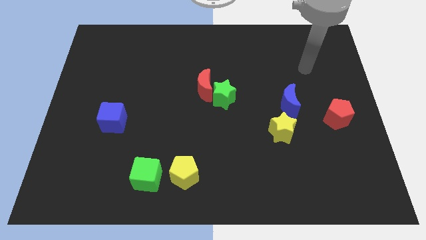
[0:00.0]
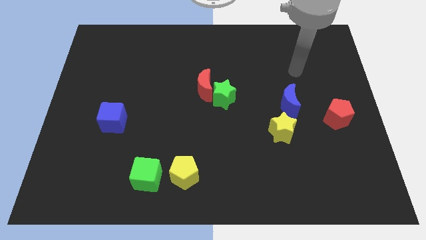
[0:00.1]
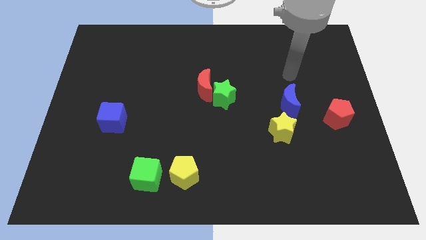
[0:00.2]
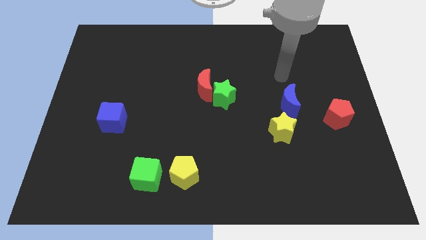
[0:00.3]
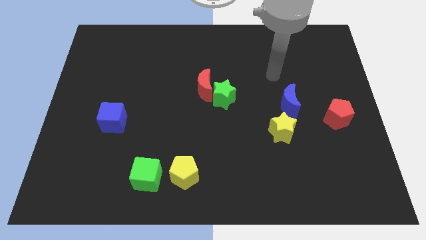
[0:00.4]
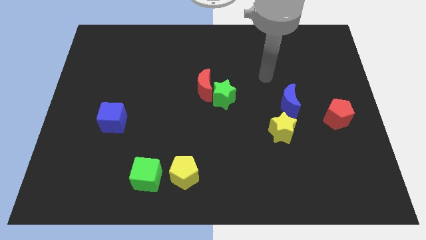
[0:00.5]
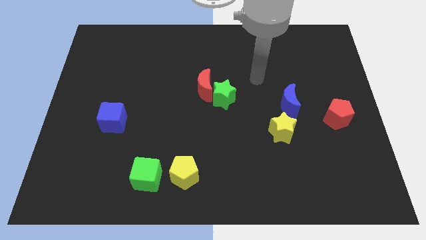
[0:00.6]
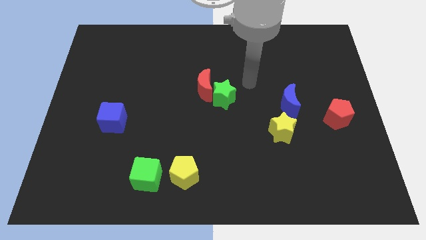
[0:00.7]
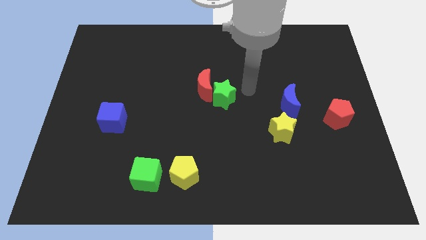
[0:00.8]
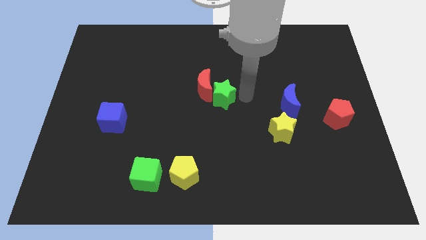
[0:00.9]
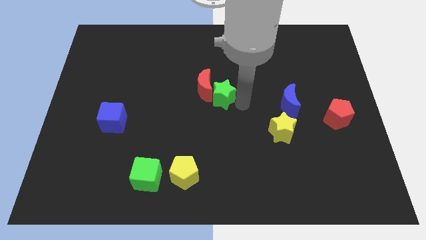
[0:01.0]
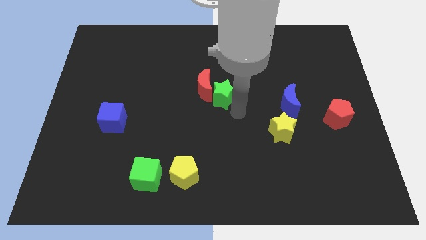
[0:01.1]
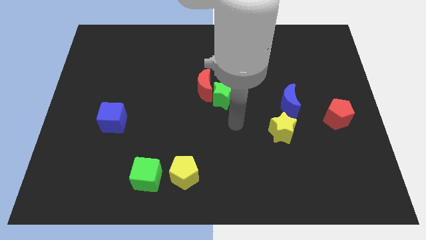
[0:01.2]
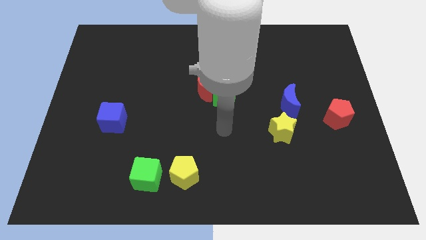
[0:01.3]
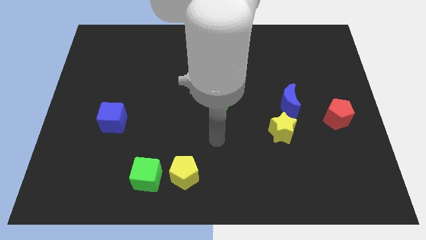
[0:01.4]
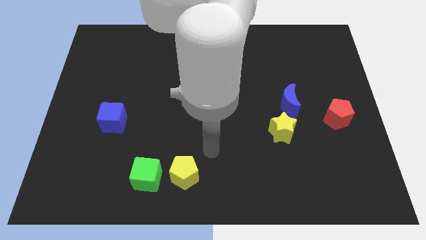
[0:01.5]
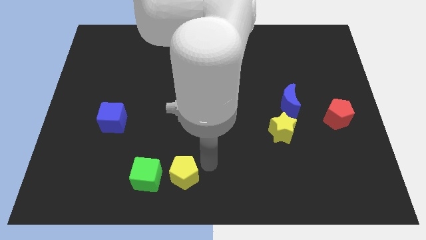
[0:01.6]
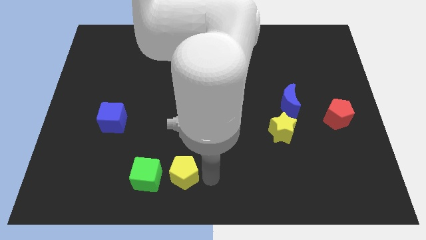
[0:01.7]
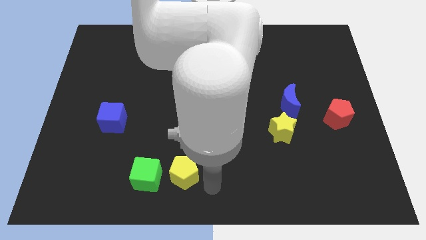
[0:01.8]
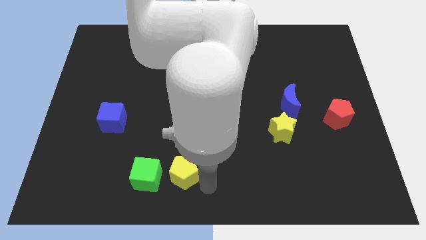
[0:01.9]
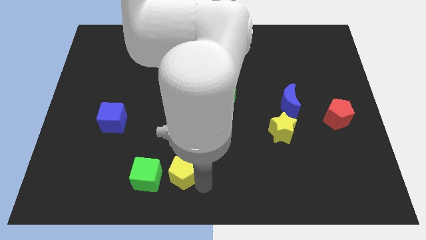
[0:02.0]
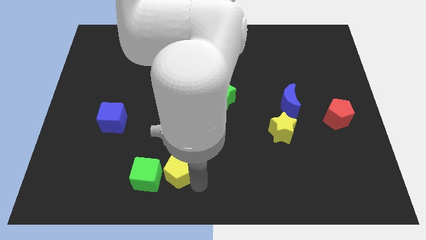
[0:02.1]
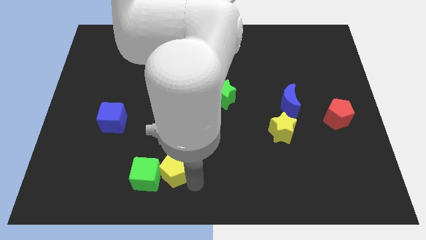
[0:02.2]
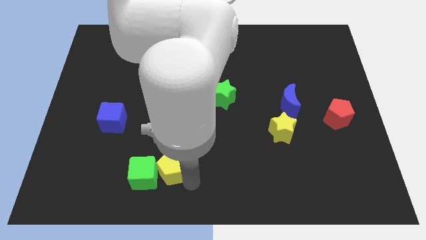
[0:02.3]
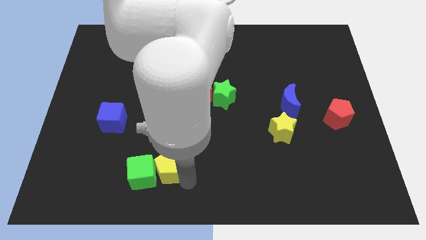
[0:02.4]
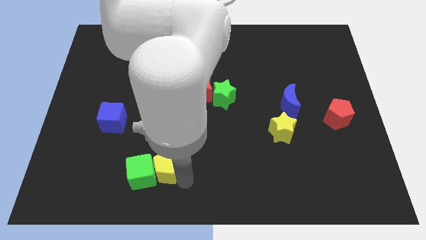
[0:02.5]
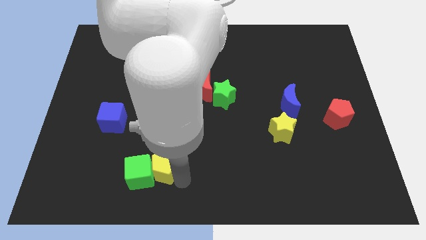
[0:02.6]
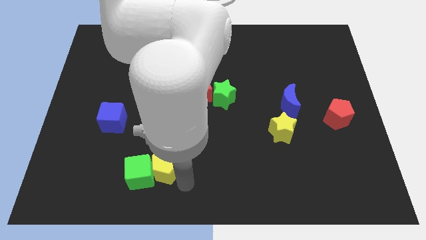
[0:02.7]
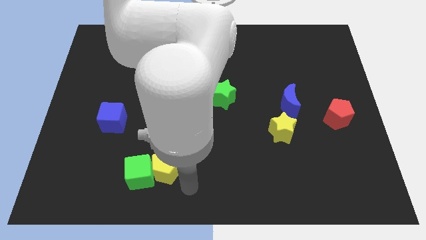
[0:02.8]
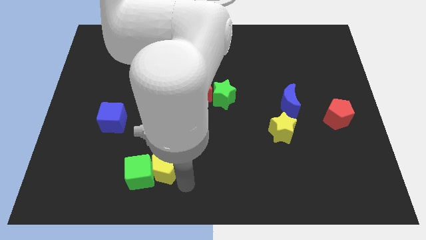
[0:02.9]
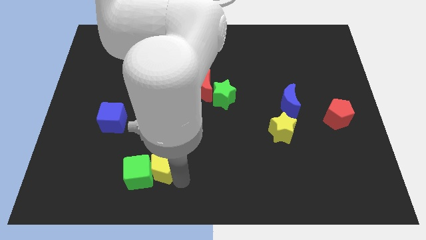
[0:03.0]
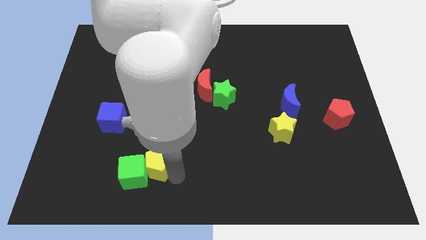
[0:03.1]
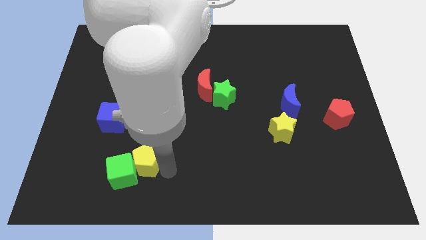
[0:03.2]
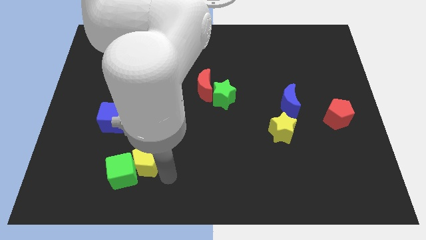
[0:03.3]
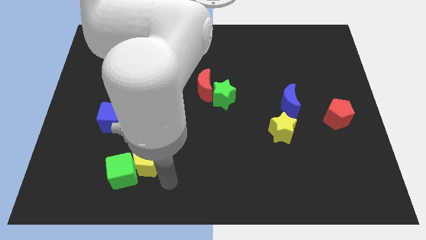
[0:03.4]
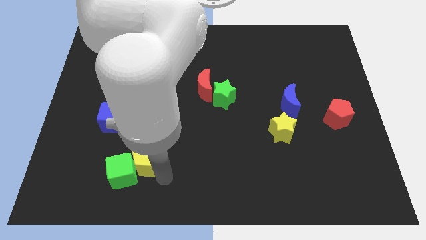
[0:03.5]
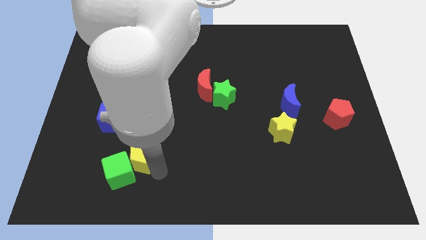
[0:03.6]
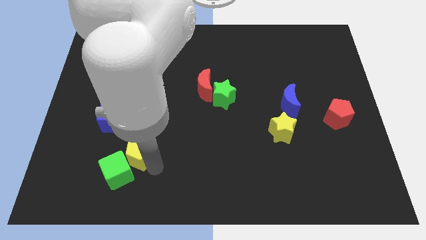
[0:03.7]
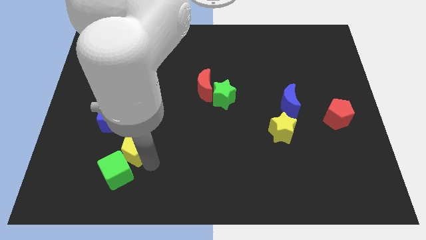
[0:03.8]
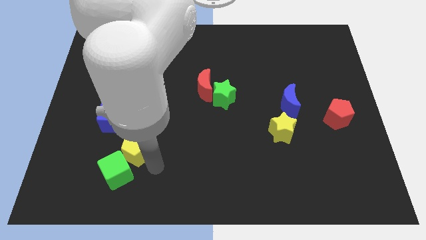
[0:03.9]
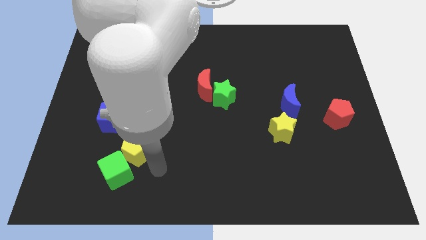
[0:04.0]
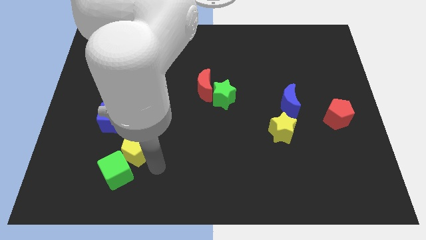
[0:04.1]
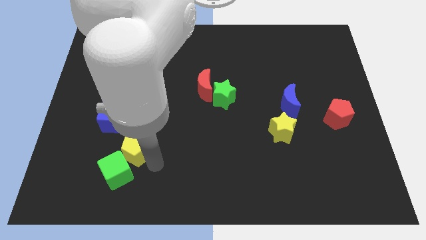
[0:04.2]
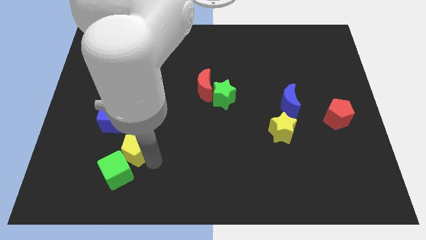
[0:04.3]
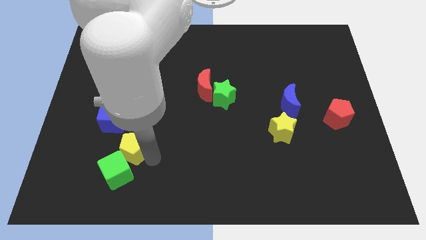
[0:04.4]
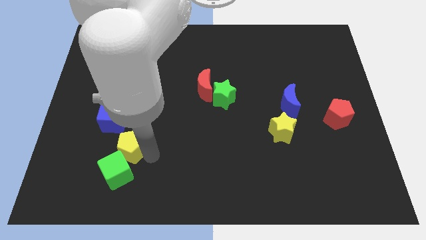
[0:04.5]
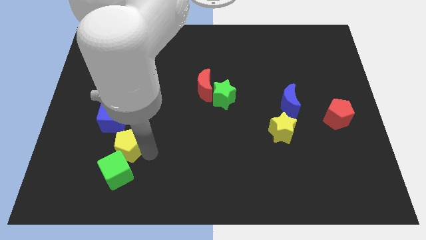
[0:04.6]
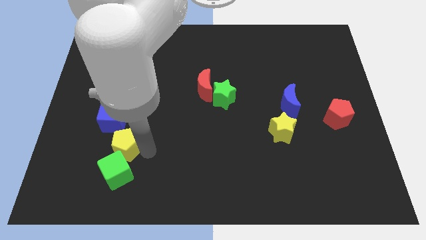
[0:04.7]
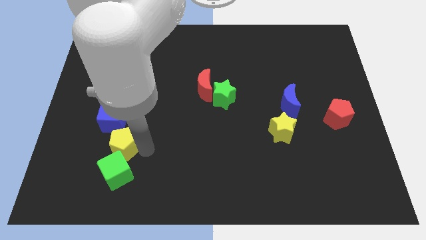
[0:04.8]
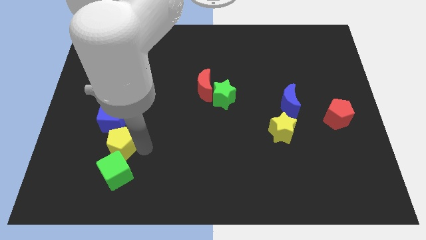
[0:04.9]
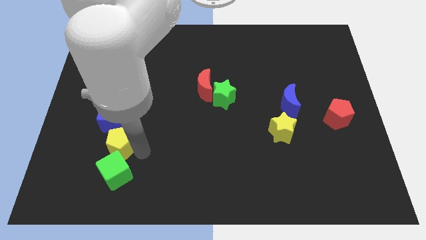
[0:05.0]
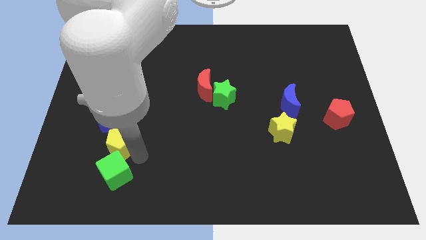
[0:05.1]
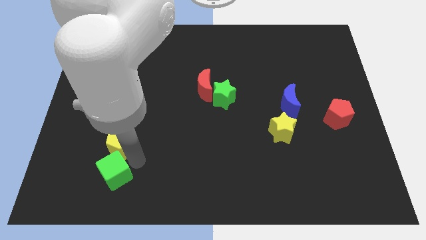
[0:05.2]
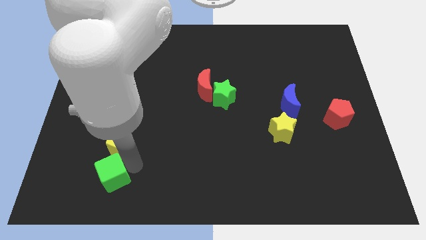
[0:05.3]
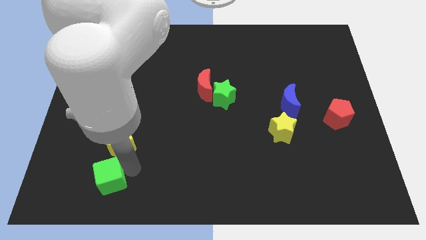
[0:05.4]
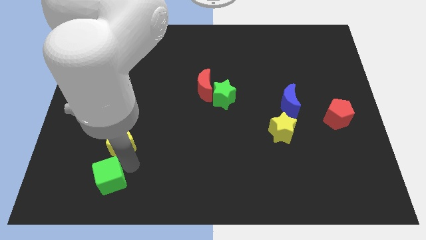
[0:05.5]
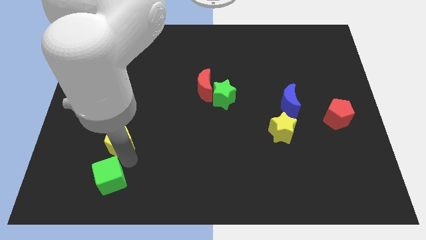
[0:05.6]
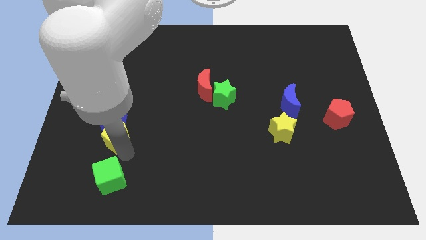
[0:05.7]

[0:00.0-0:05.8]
move the yellow pentagon towards the blue cube

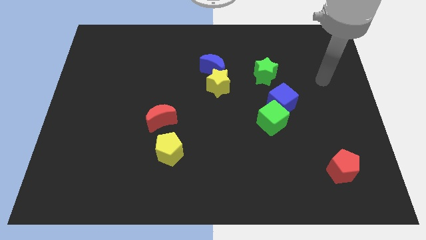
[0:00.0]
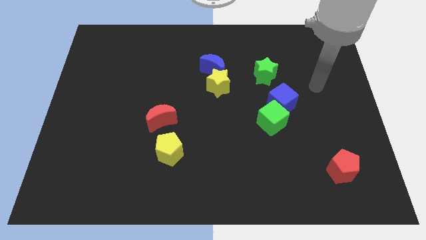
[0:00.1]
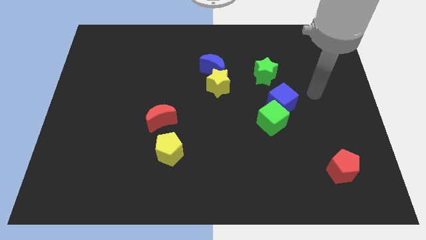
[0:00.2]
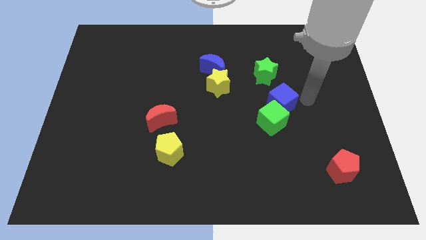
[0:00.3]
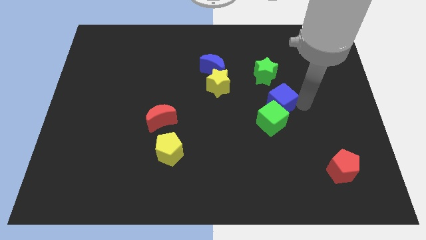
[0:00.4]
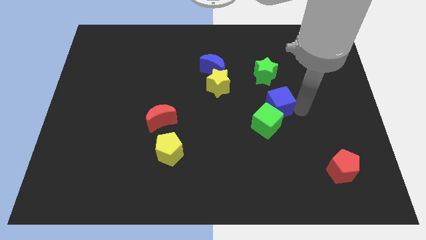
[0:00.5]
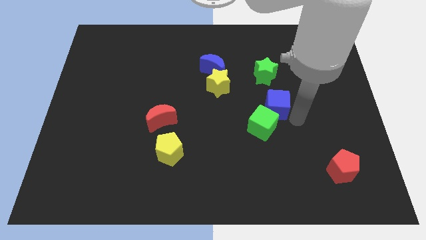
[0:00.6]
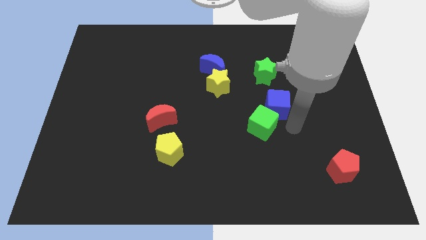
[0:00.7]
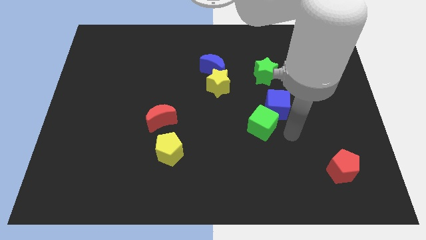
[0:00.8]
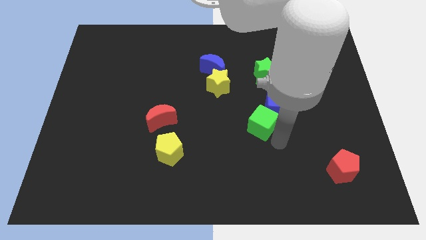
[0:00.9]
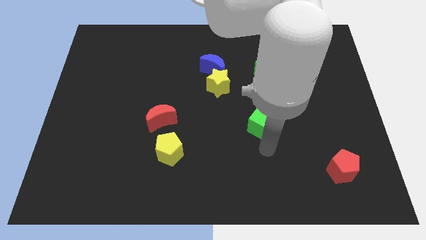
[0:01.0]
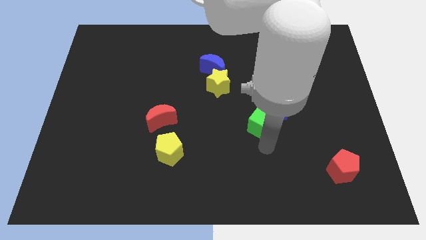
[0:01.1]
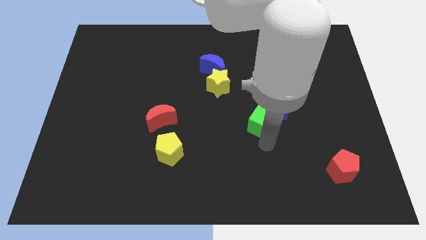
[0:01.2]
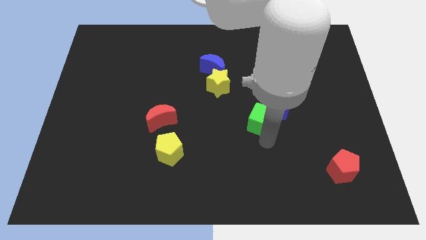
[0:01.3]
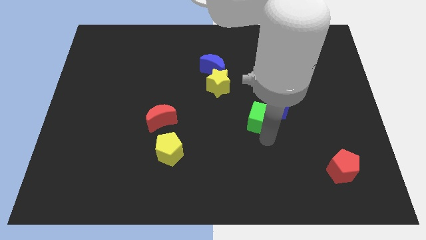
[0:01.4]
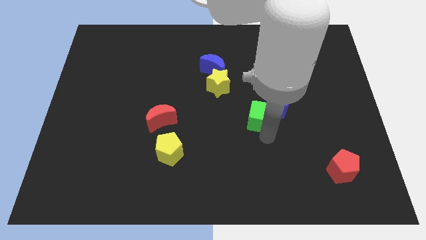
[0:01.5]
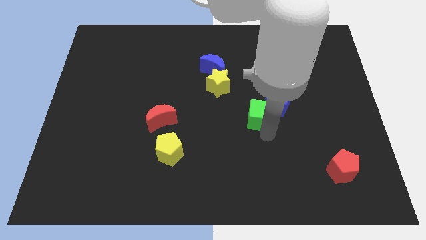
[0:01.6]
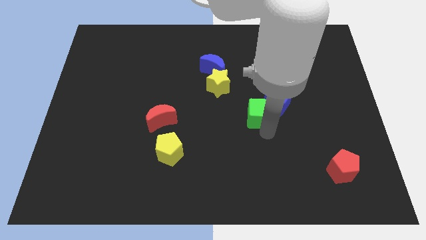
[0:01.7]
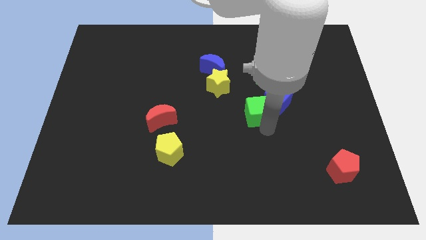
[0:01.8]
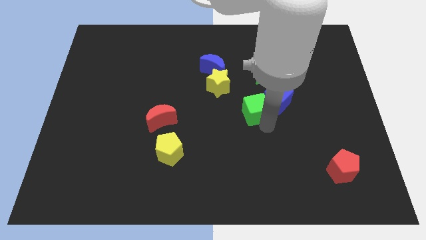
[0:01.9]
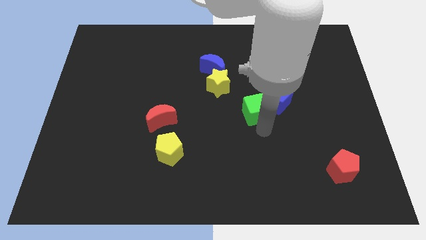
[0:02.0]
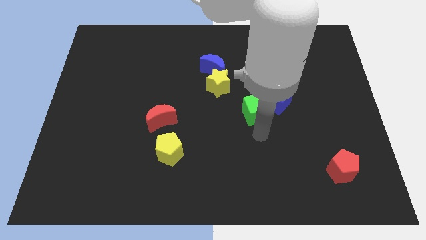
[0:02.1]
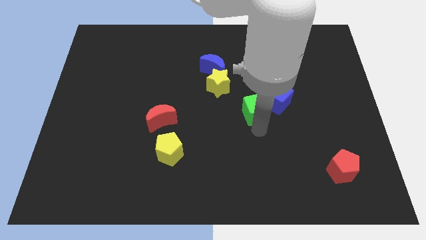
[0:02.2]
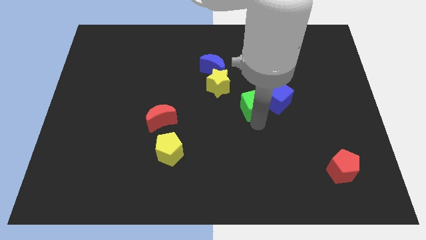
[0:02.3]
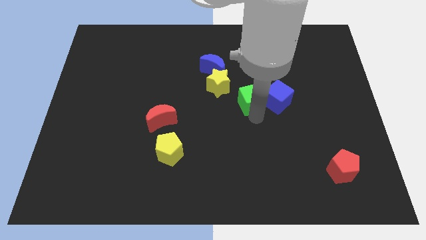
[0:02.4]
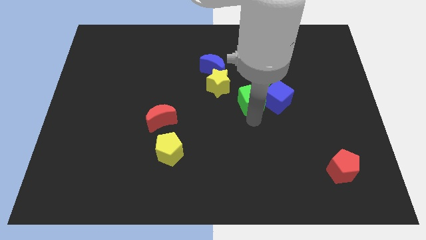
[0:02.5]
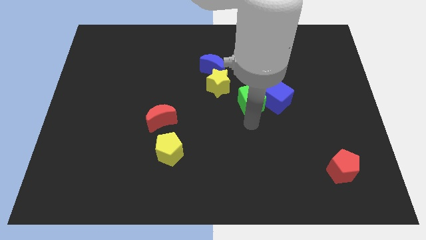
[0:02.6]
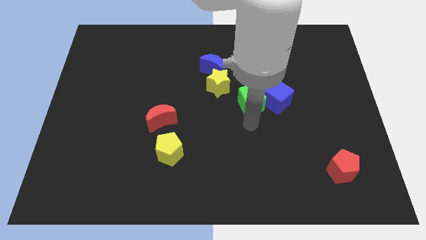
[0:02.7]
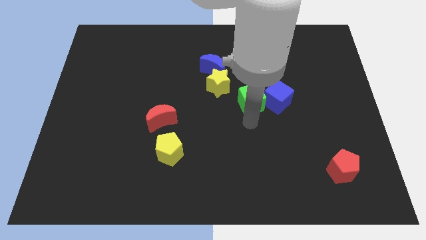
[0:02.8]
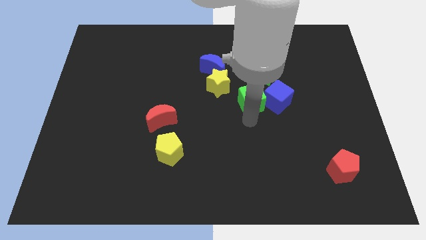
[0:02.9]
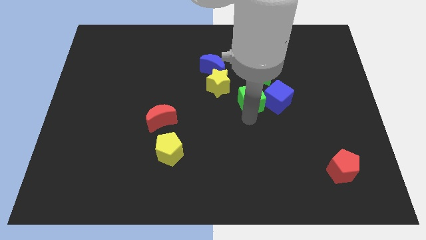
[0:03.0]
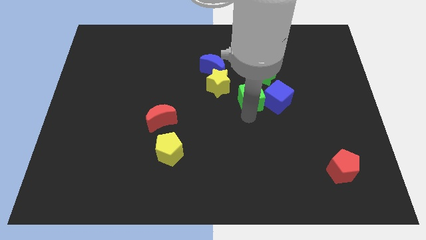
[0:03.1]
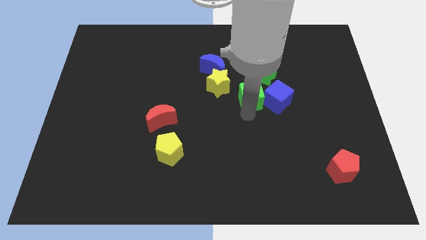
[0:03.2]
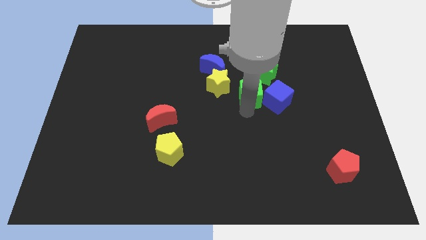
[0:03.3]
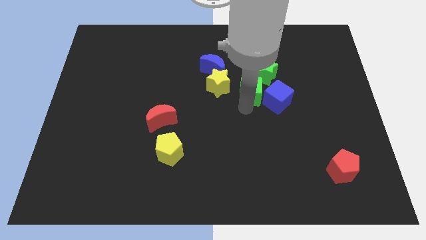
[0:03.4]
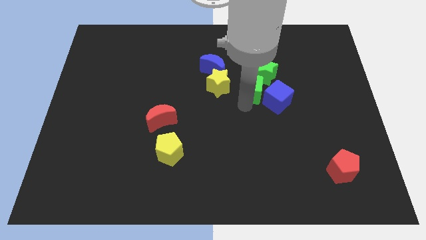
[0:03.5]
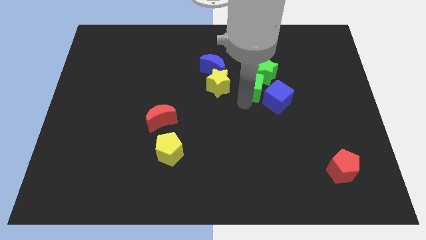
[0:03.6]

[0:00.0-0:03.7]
push the green cube to the green star
